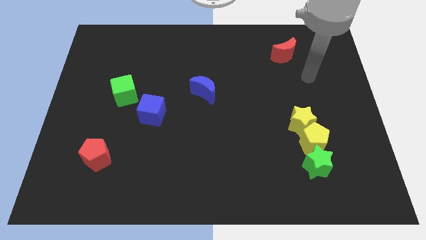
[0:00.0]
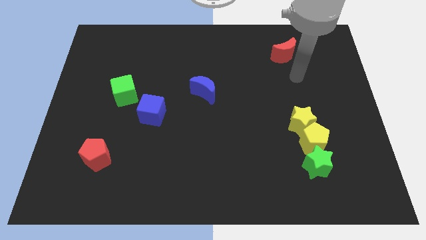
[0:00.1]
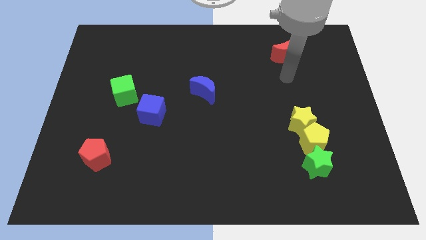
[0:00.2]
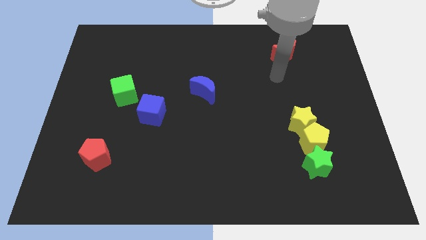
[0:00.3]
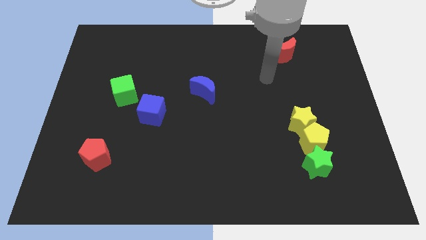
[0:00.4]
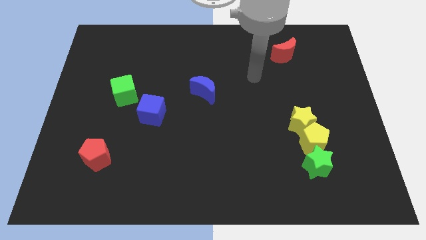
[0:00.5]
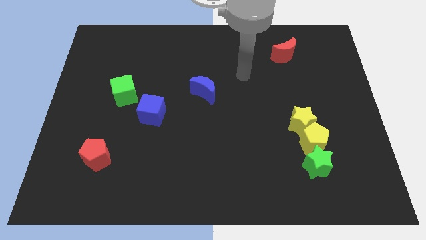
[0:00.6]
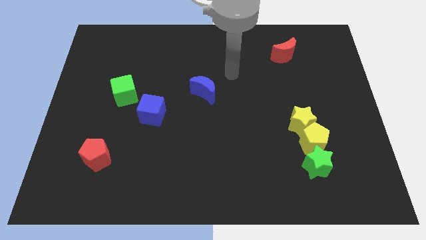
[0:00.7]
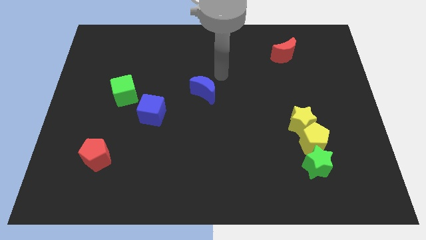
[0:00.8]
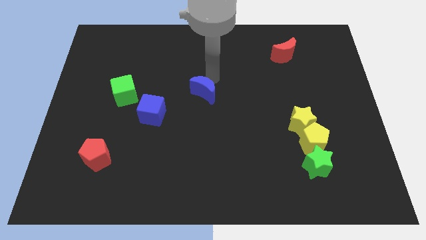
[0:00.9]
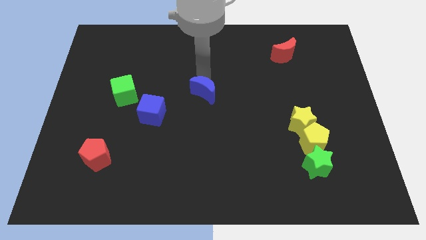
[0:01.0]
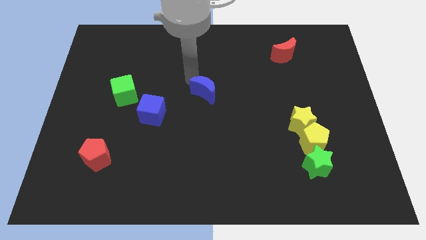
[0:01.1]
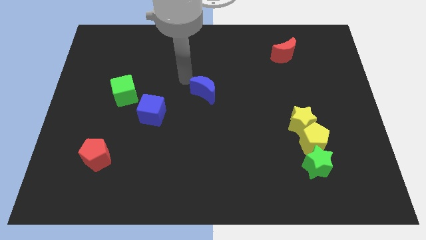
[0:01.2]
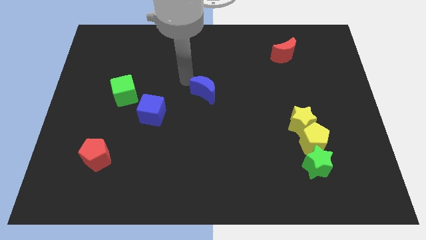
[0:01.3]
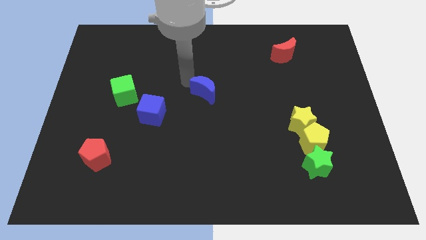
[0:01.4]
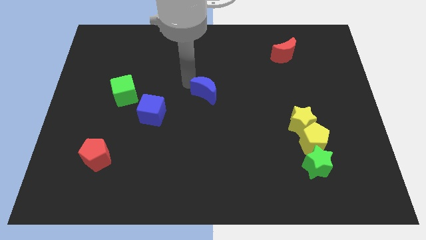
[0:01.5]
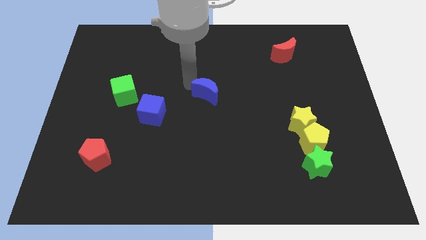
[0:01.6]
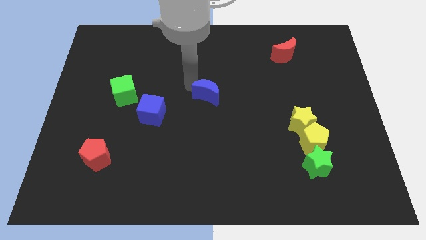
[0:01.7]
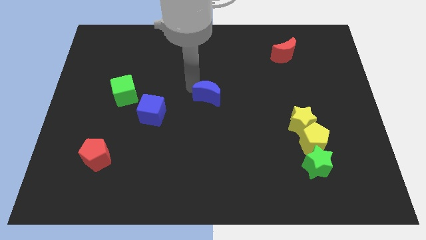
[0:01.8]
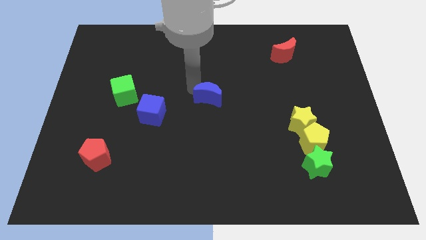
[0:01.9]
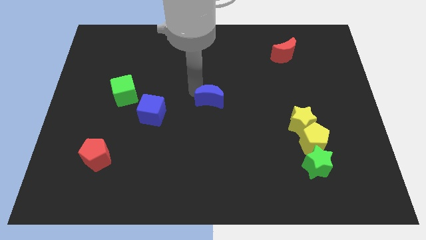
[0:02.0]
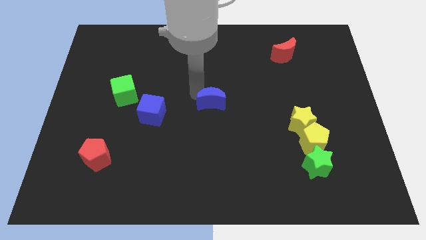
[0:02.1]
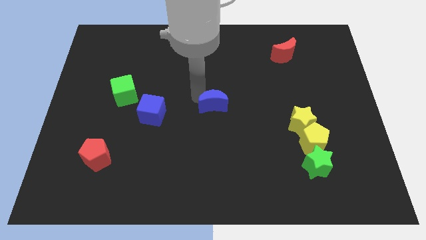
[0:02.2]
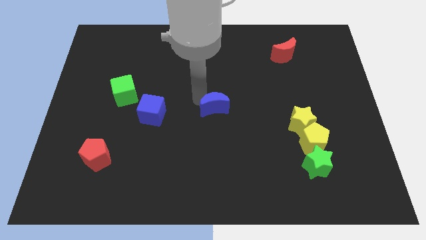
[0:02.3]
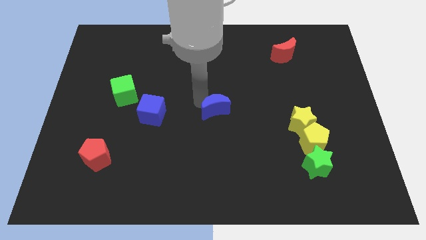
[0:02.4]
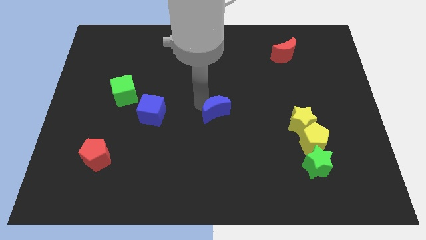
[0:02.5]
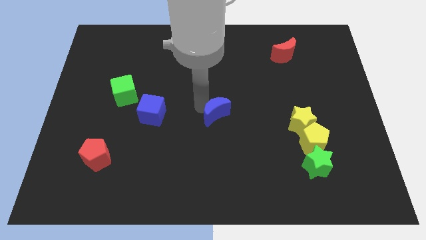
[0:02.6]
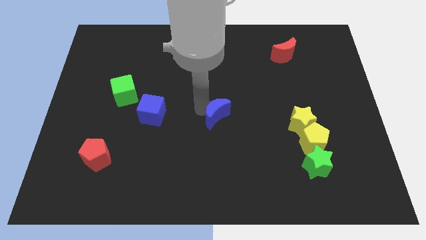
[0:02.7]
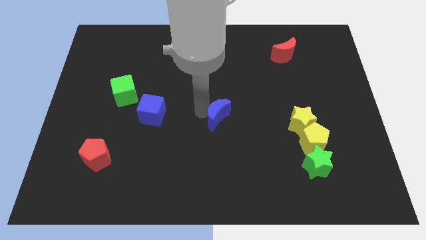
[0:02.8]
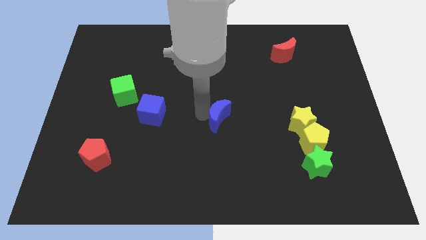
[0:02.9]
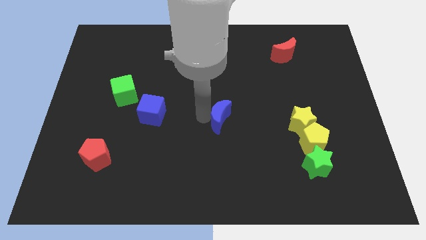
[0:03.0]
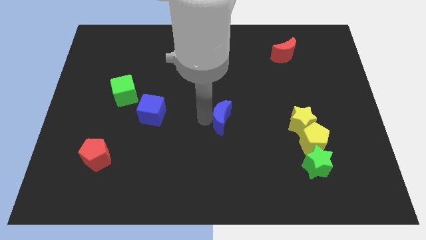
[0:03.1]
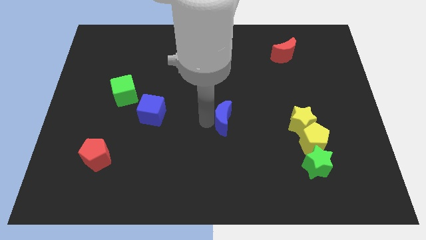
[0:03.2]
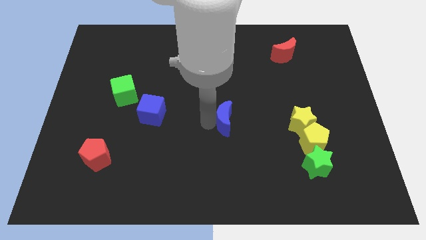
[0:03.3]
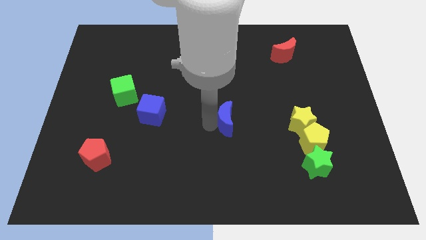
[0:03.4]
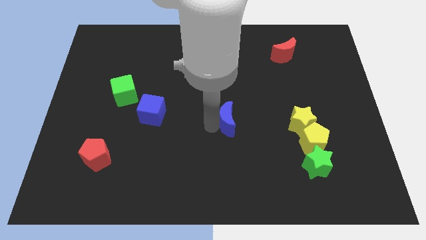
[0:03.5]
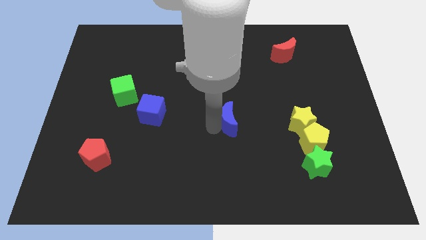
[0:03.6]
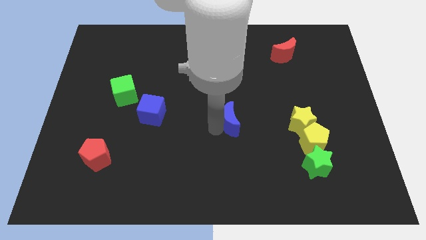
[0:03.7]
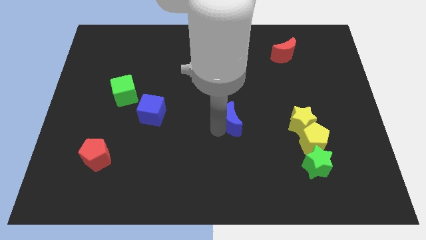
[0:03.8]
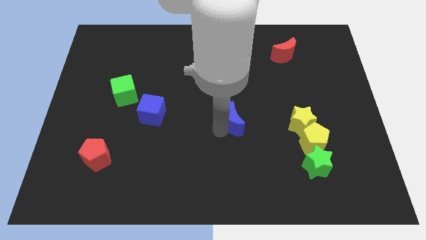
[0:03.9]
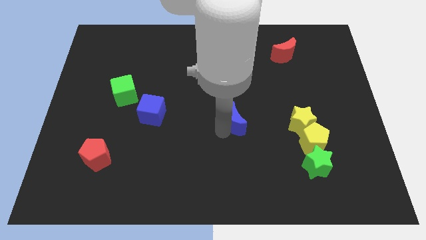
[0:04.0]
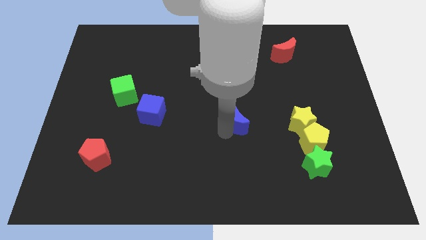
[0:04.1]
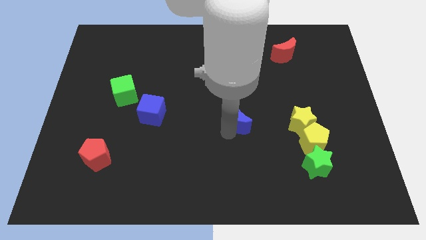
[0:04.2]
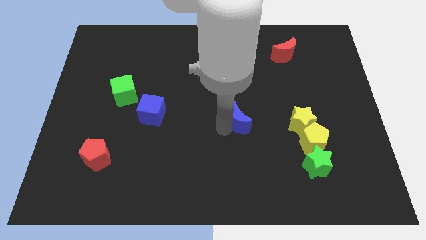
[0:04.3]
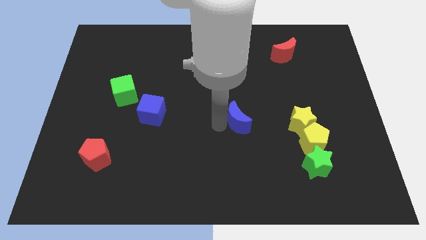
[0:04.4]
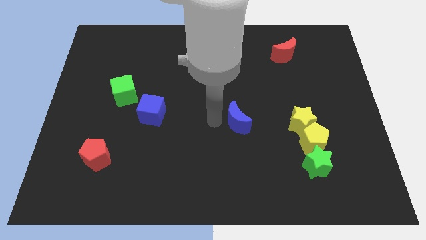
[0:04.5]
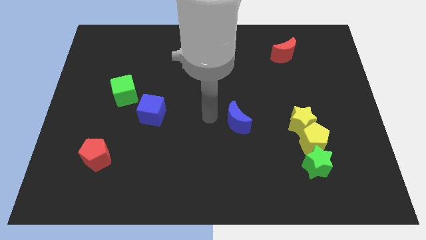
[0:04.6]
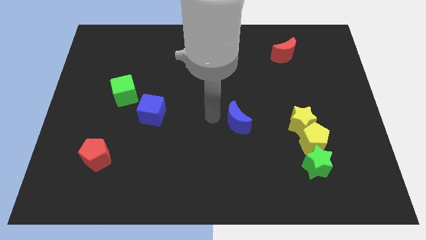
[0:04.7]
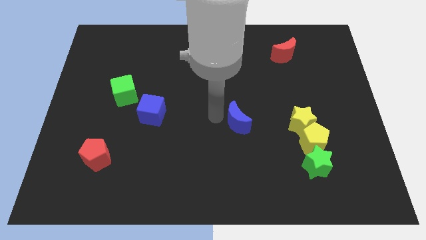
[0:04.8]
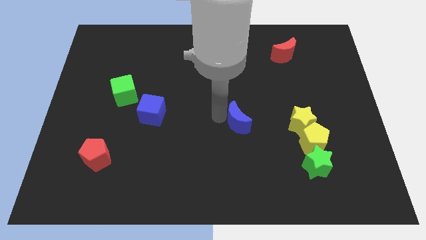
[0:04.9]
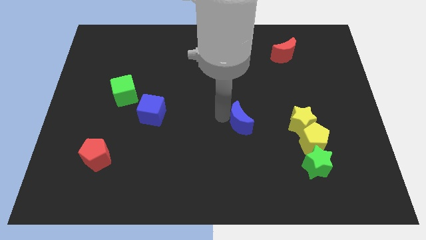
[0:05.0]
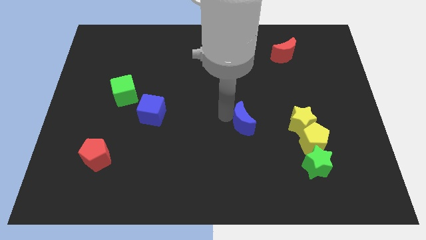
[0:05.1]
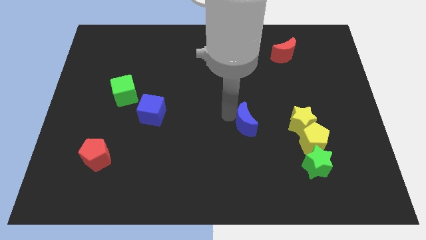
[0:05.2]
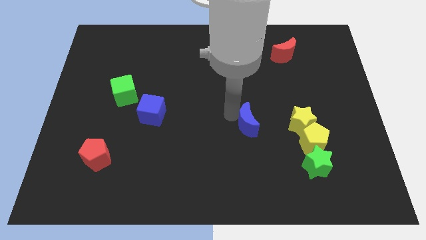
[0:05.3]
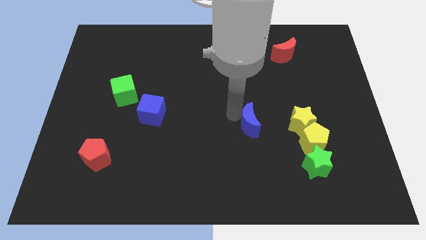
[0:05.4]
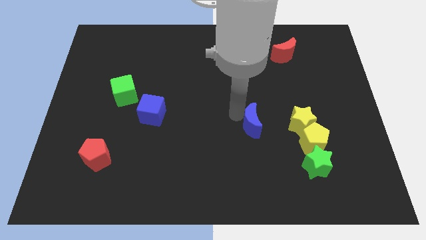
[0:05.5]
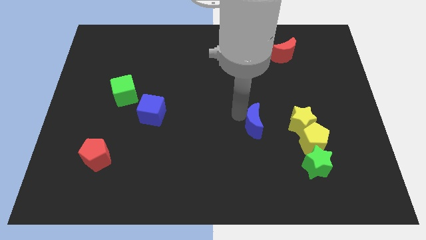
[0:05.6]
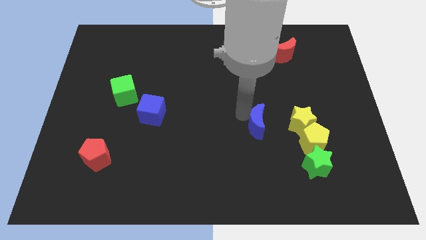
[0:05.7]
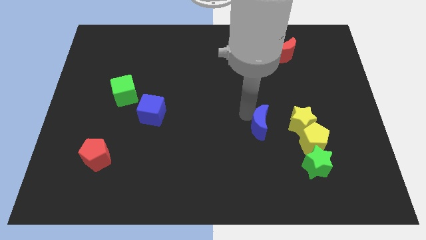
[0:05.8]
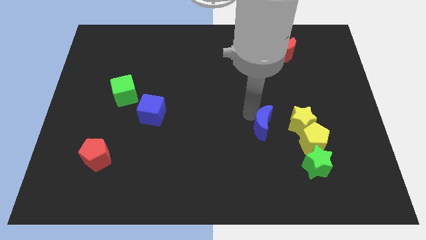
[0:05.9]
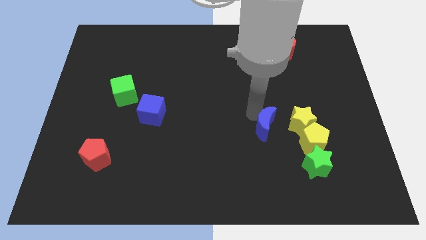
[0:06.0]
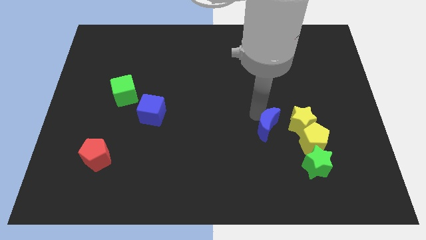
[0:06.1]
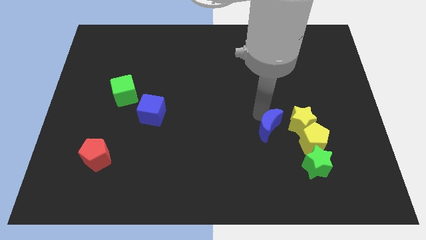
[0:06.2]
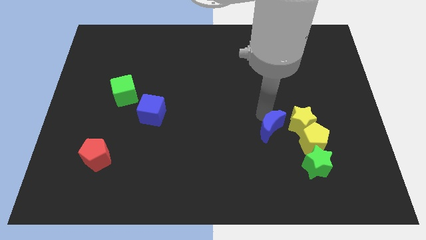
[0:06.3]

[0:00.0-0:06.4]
slide the blue moon diagonally up and to the left of the green star

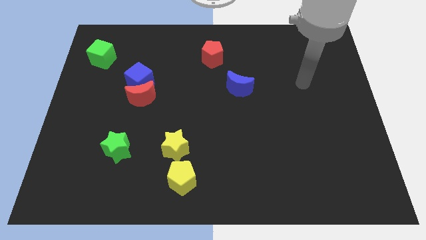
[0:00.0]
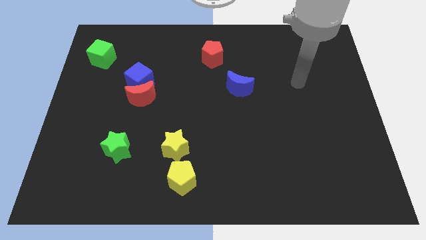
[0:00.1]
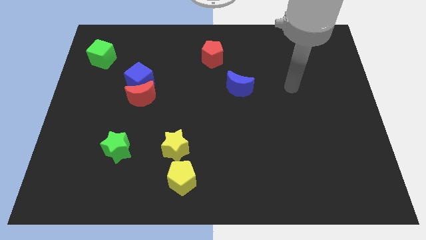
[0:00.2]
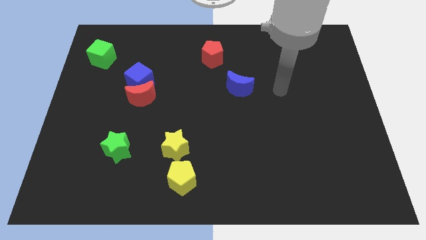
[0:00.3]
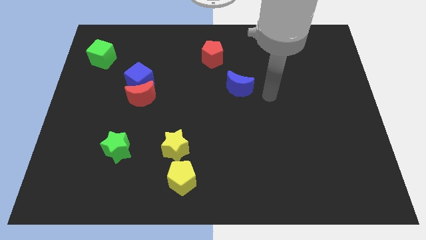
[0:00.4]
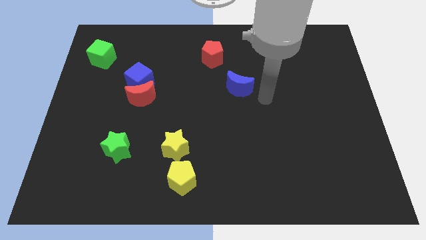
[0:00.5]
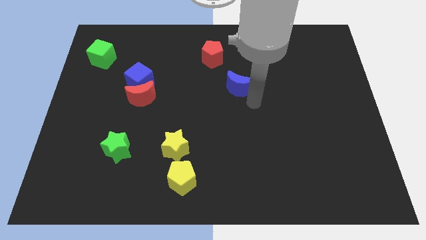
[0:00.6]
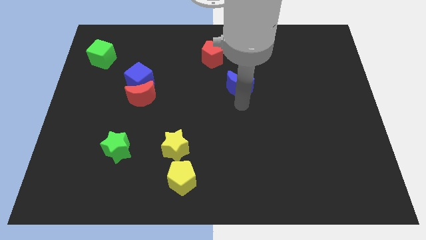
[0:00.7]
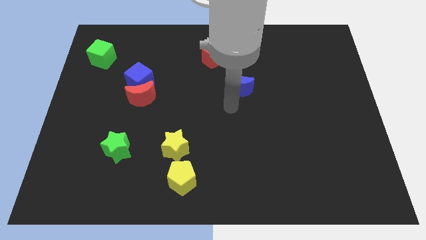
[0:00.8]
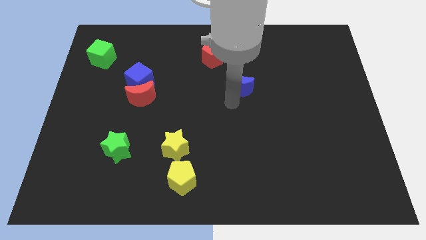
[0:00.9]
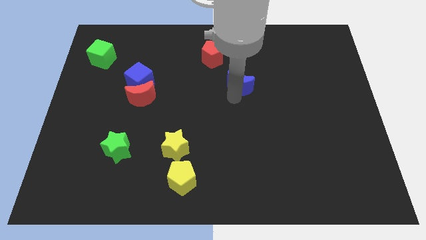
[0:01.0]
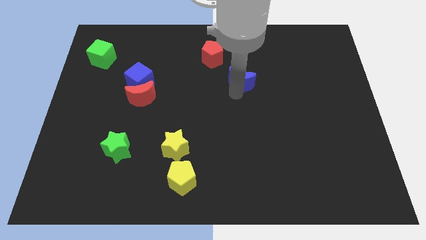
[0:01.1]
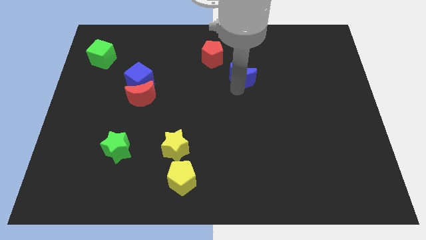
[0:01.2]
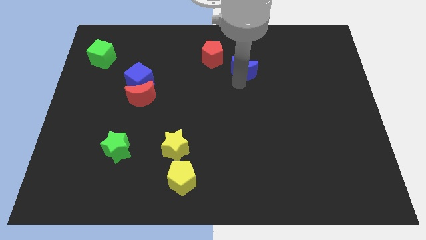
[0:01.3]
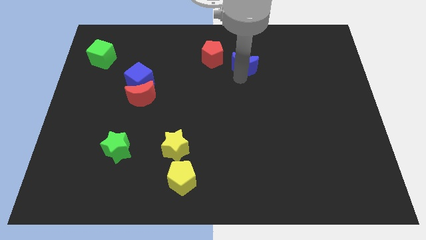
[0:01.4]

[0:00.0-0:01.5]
slide the blue moon to the right of the red pentagon
